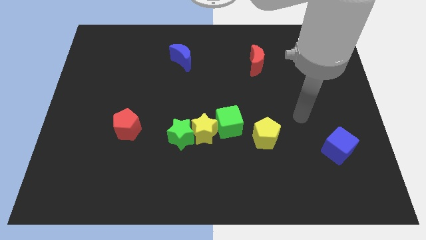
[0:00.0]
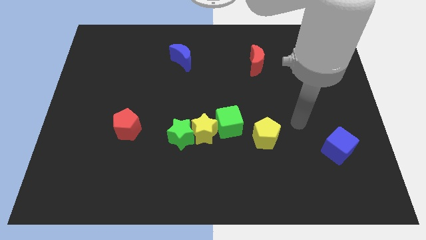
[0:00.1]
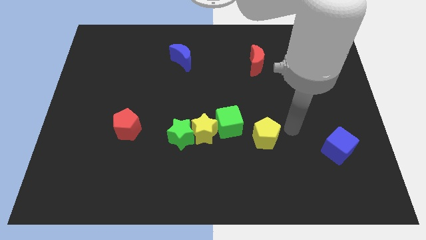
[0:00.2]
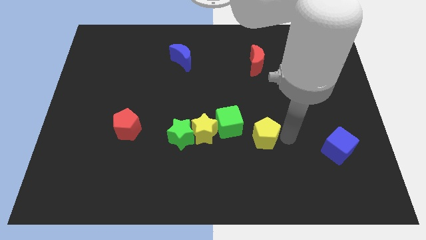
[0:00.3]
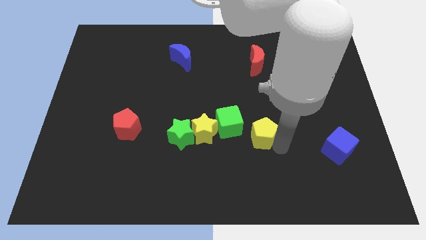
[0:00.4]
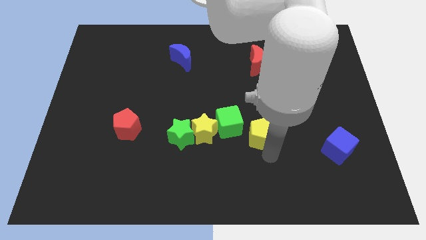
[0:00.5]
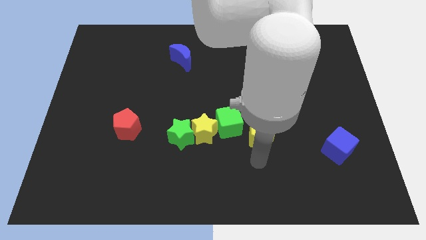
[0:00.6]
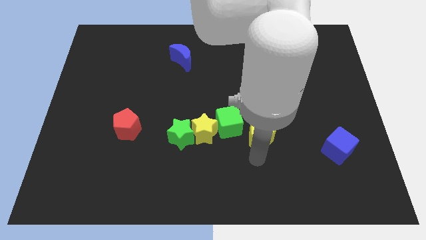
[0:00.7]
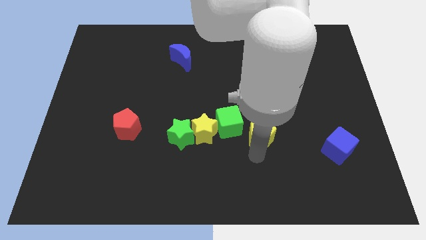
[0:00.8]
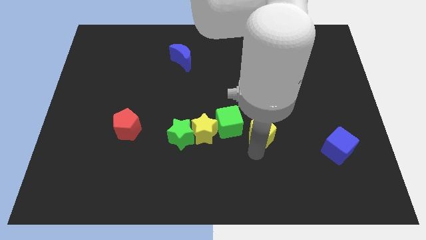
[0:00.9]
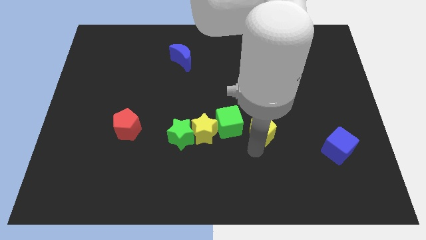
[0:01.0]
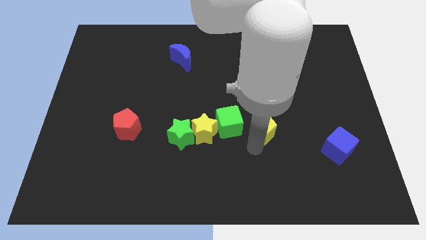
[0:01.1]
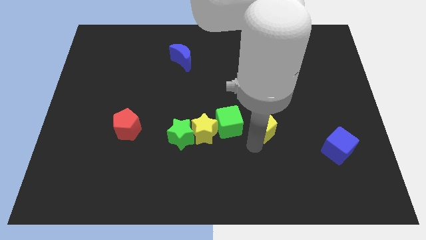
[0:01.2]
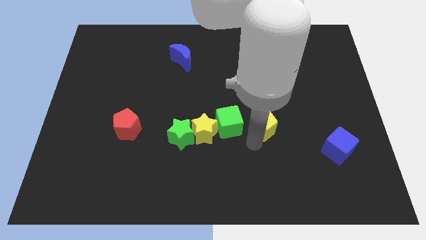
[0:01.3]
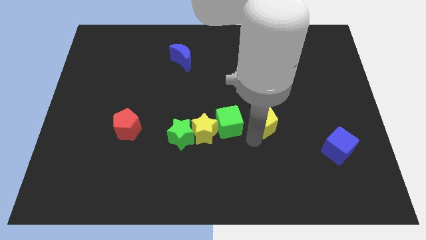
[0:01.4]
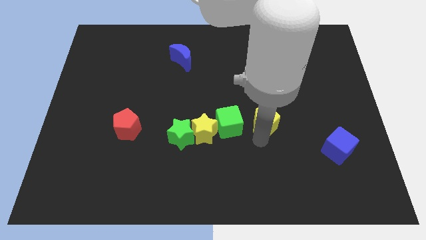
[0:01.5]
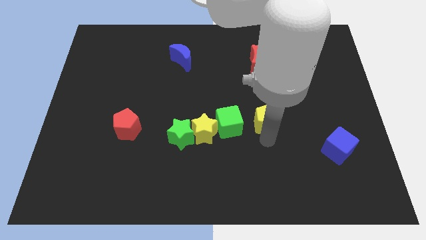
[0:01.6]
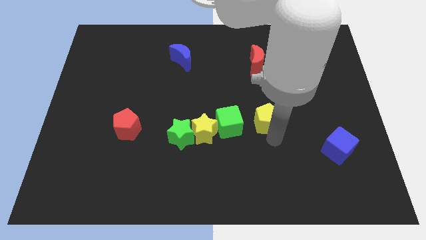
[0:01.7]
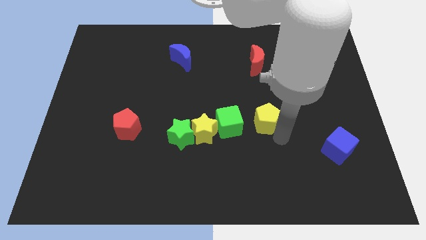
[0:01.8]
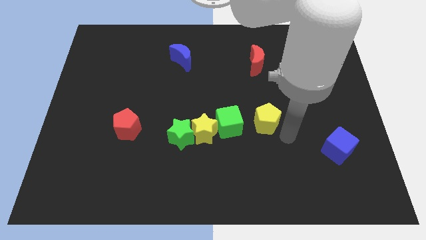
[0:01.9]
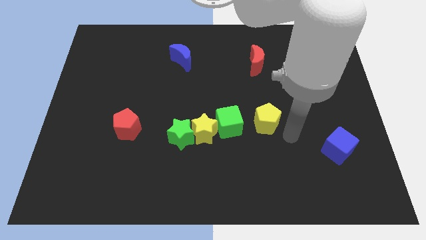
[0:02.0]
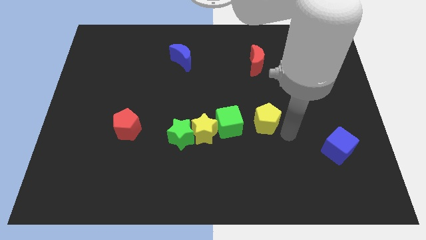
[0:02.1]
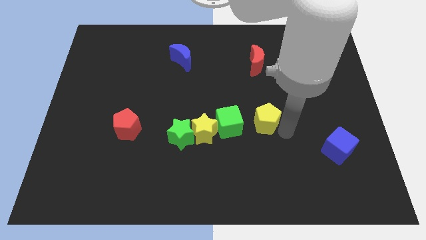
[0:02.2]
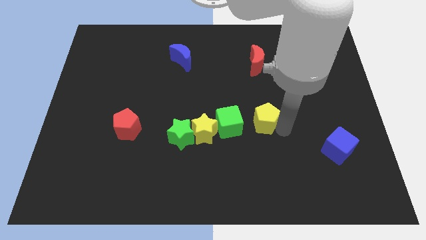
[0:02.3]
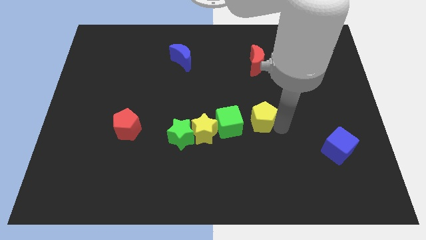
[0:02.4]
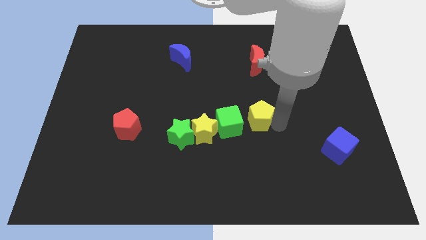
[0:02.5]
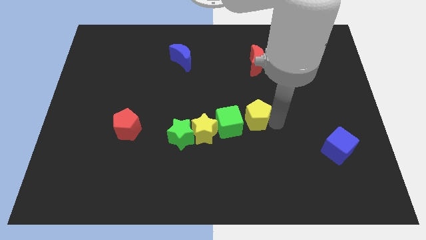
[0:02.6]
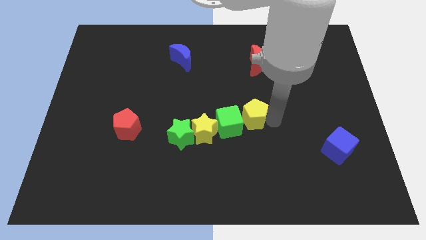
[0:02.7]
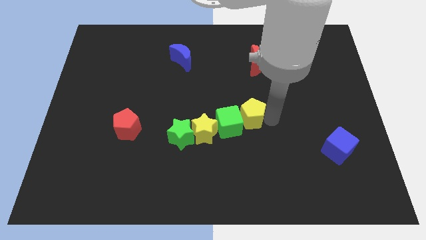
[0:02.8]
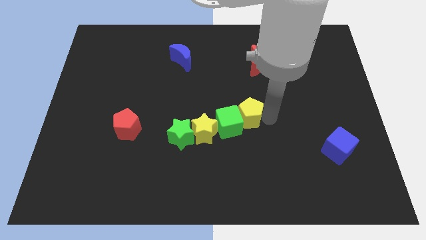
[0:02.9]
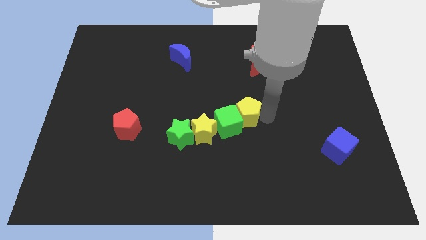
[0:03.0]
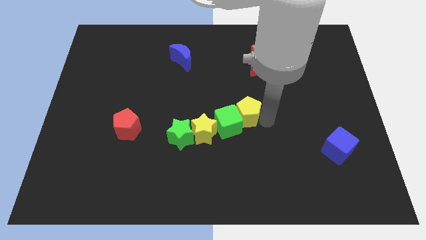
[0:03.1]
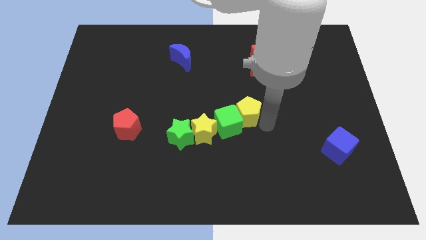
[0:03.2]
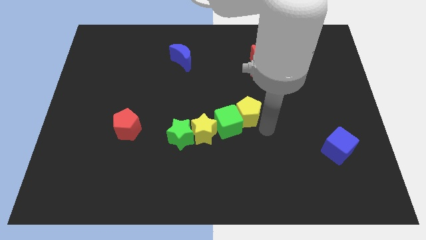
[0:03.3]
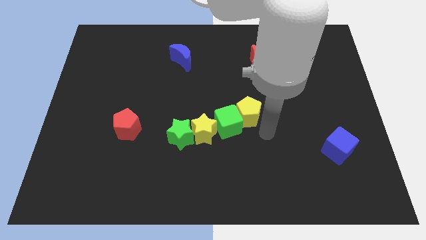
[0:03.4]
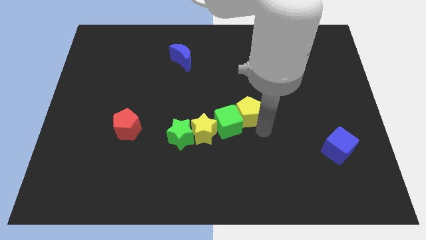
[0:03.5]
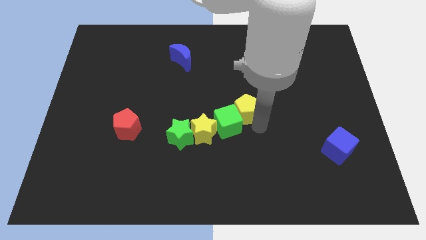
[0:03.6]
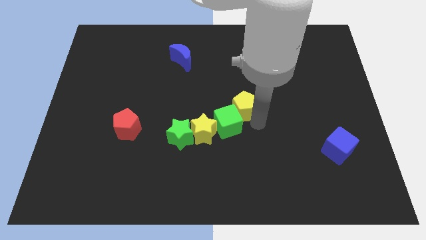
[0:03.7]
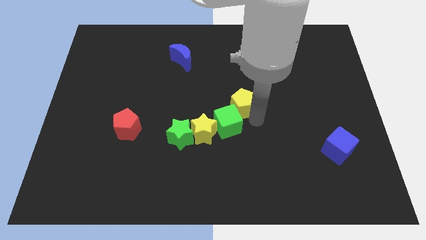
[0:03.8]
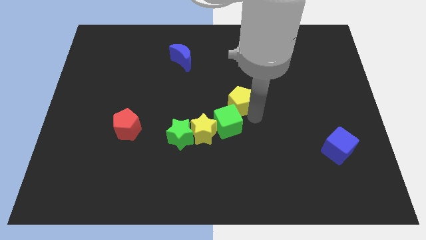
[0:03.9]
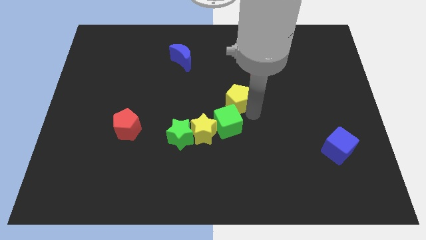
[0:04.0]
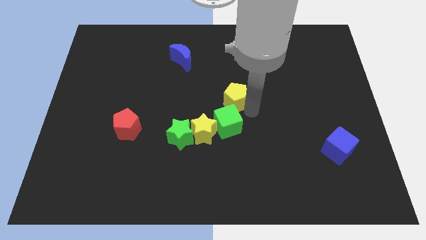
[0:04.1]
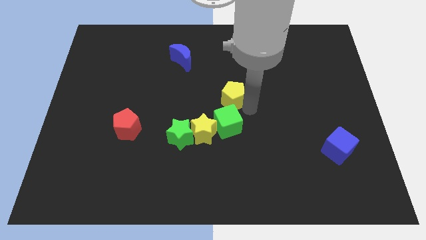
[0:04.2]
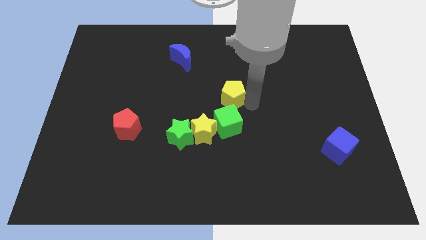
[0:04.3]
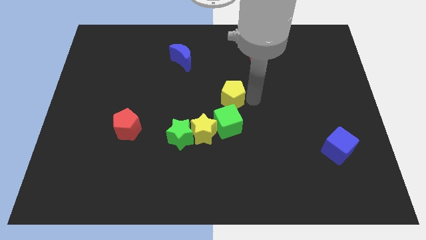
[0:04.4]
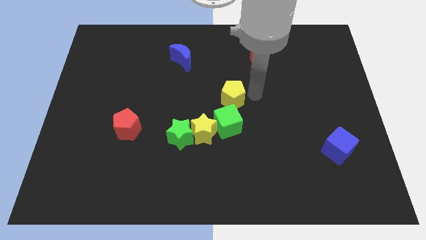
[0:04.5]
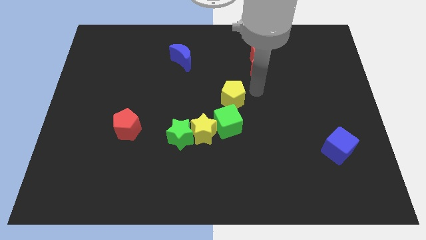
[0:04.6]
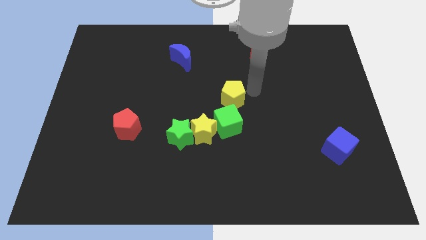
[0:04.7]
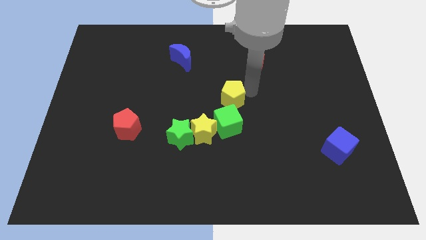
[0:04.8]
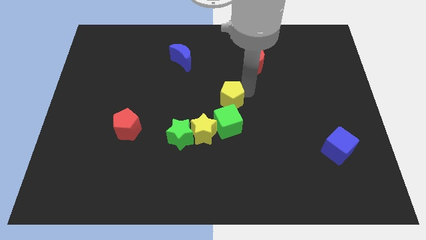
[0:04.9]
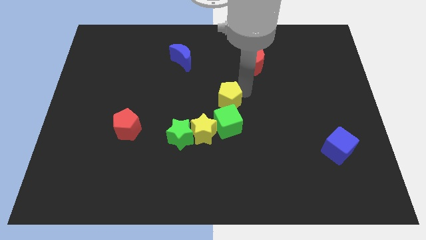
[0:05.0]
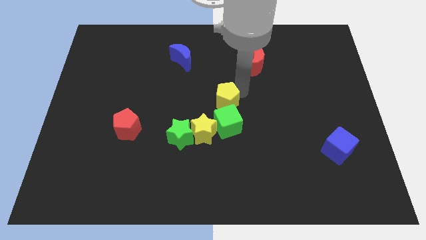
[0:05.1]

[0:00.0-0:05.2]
put the yellow pentagon to the top left of the green cube

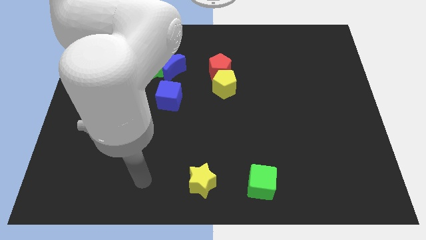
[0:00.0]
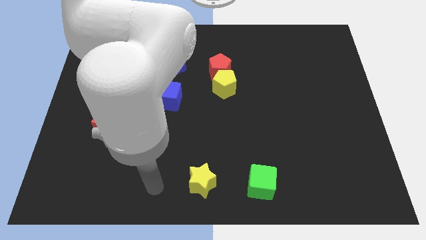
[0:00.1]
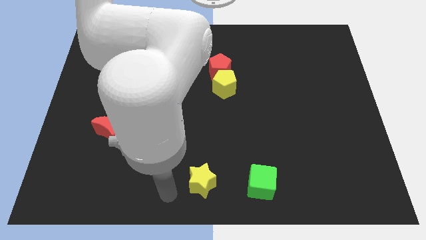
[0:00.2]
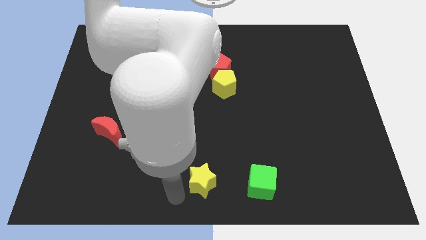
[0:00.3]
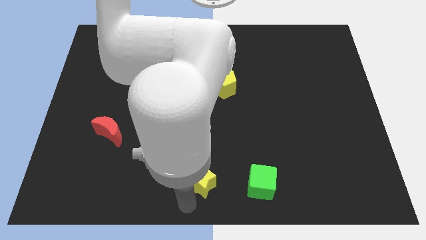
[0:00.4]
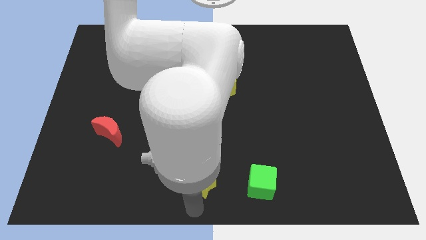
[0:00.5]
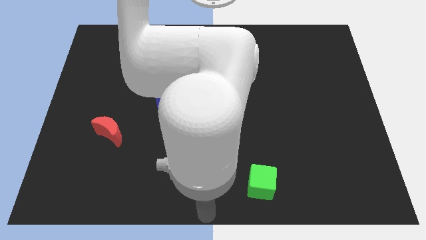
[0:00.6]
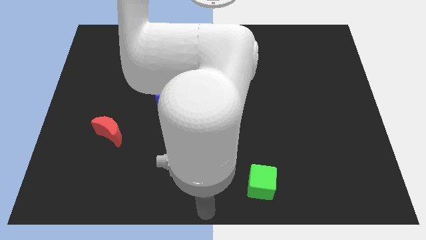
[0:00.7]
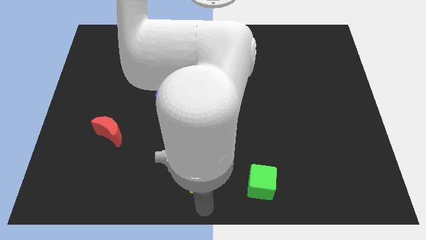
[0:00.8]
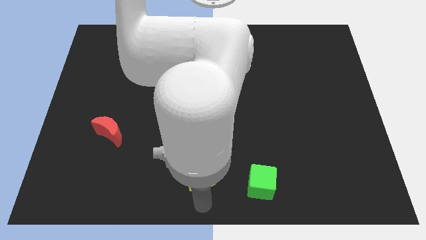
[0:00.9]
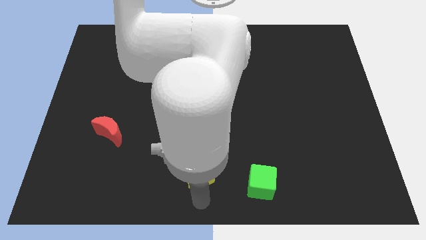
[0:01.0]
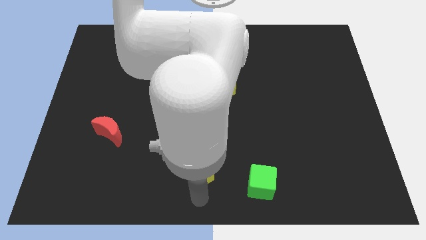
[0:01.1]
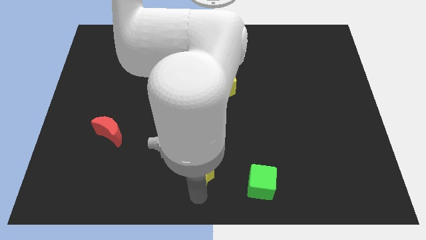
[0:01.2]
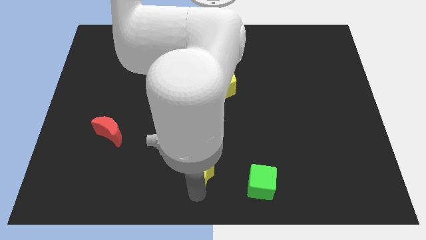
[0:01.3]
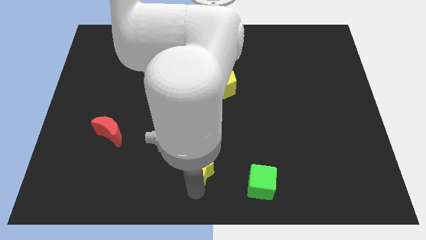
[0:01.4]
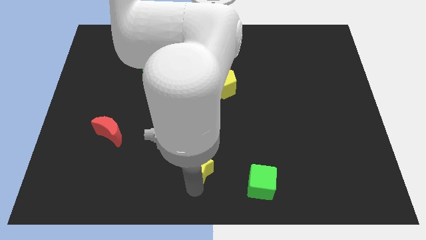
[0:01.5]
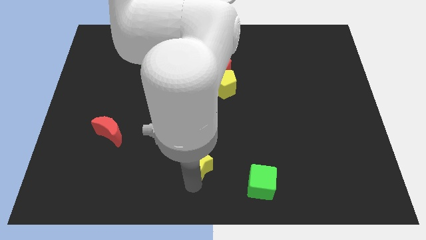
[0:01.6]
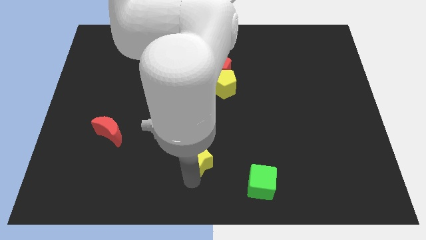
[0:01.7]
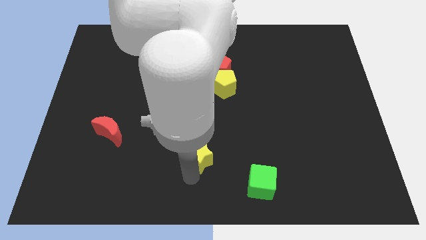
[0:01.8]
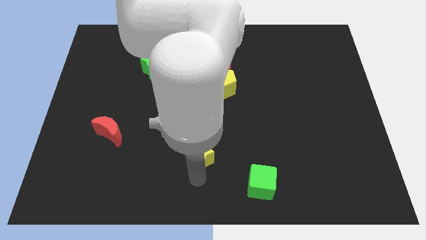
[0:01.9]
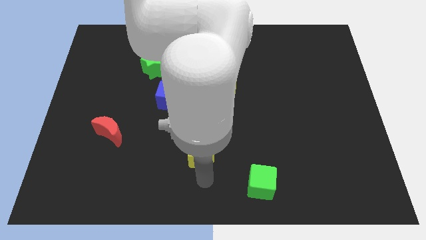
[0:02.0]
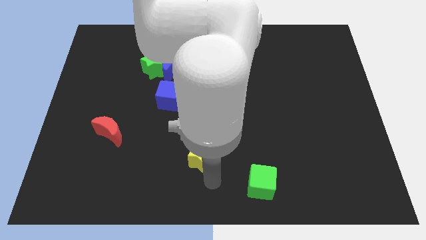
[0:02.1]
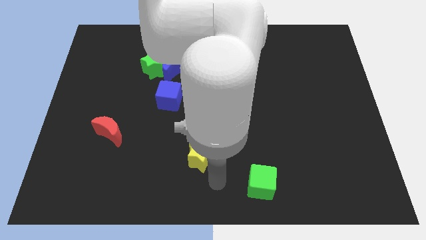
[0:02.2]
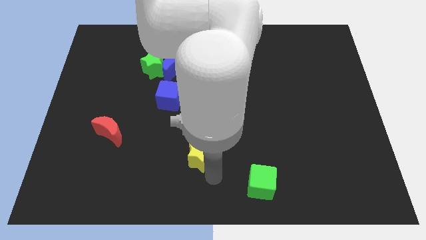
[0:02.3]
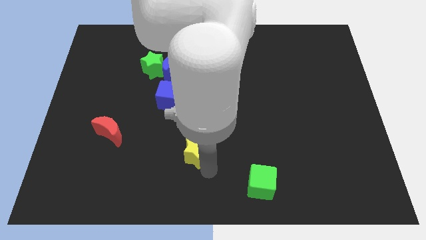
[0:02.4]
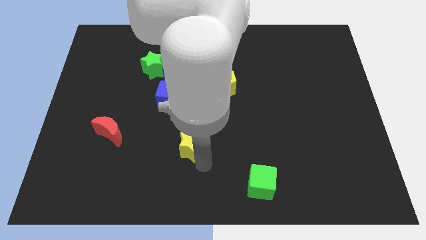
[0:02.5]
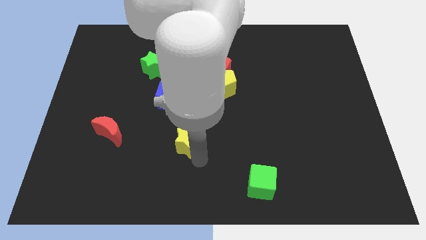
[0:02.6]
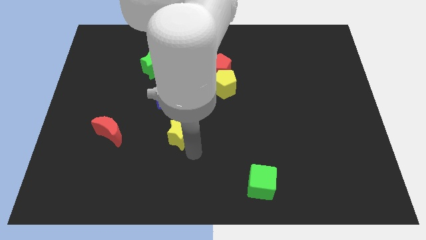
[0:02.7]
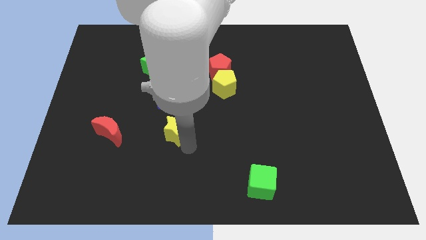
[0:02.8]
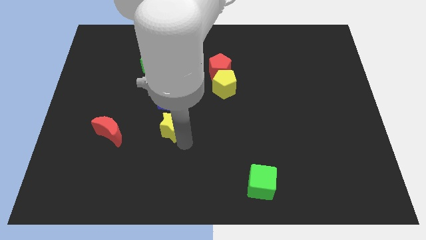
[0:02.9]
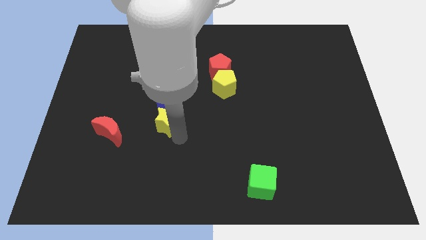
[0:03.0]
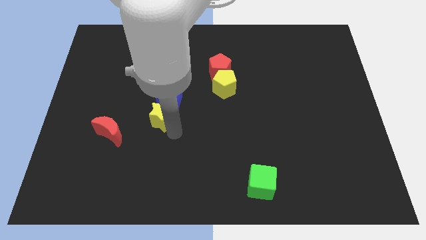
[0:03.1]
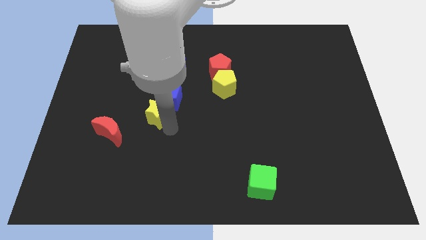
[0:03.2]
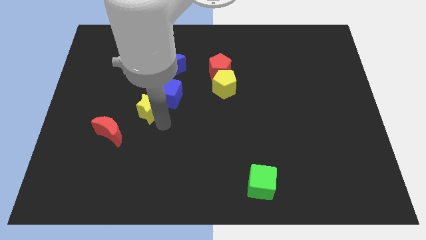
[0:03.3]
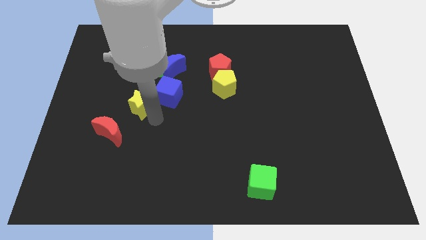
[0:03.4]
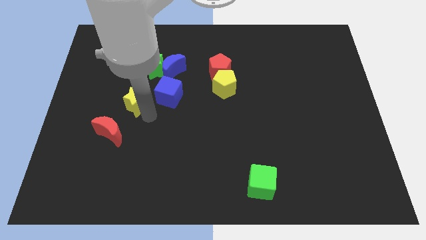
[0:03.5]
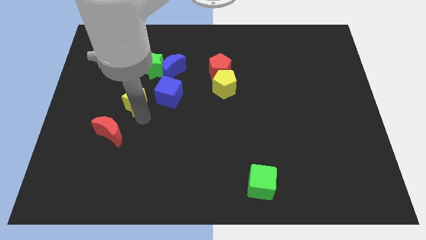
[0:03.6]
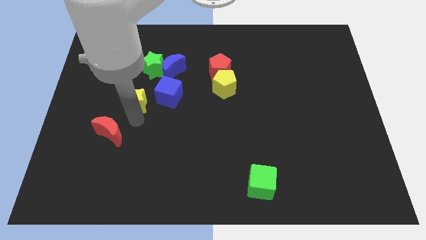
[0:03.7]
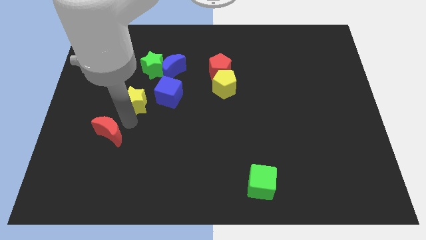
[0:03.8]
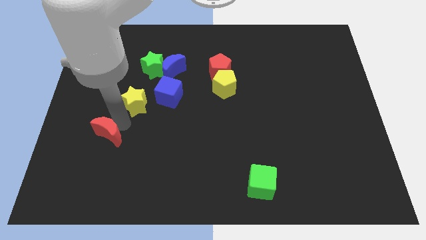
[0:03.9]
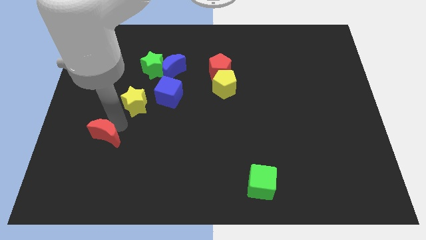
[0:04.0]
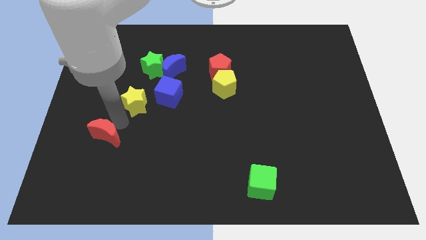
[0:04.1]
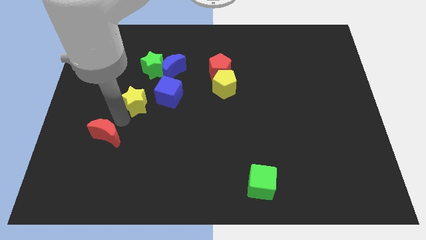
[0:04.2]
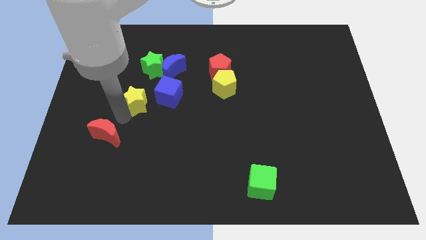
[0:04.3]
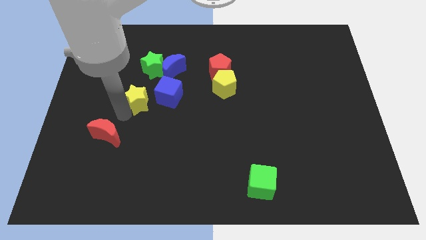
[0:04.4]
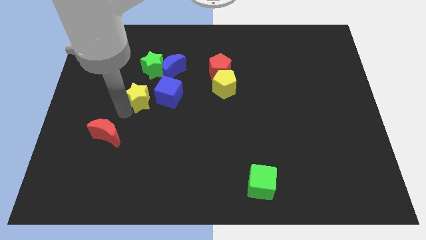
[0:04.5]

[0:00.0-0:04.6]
move the yellow star diagonally down and to the left of the blue moon
